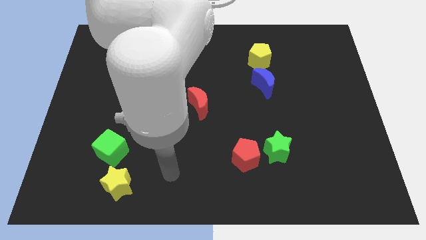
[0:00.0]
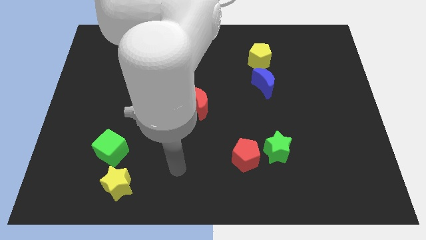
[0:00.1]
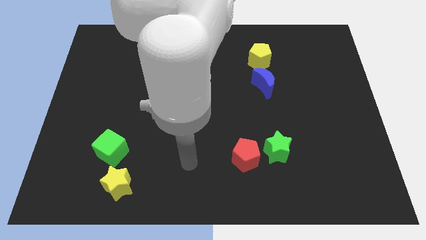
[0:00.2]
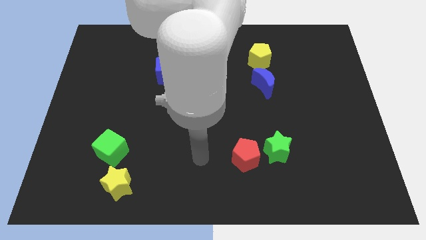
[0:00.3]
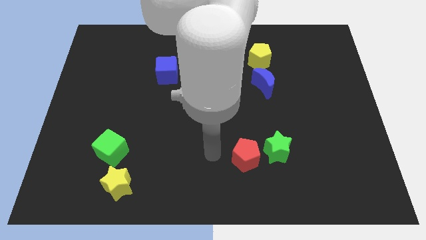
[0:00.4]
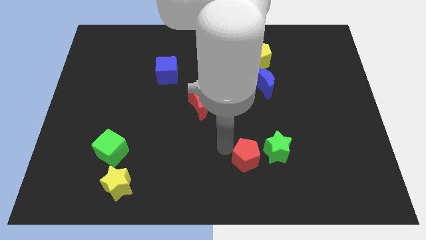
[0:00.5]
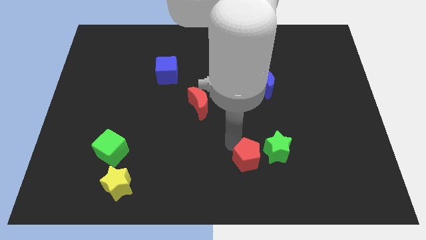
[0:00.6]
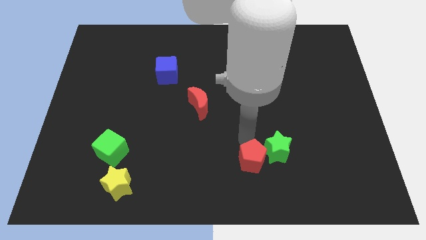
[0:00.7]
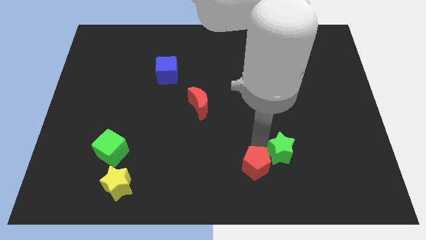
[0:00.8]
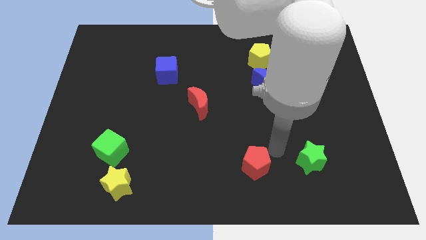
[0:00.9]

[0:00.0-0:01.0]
separate the red pentagon from the green star

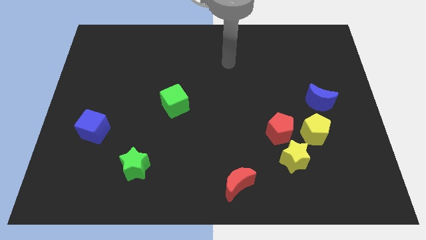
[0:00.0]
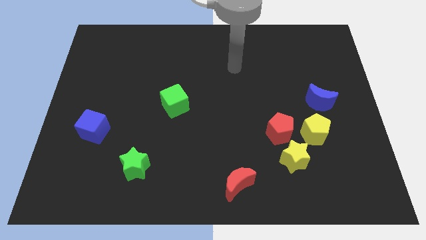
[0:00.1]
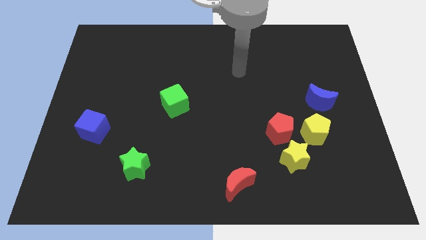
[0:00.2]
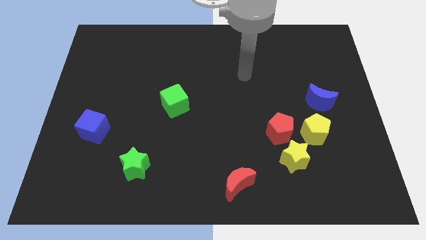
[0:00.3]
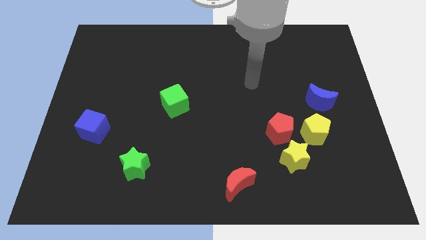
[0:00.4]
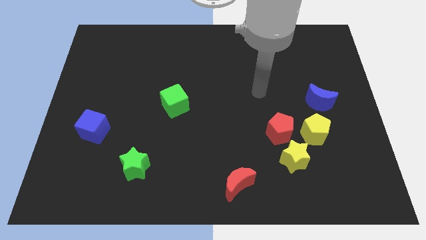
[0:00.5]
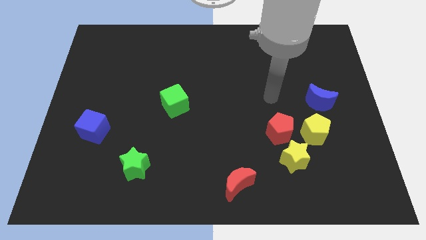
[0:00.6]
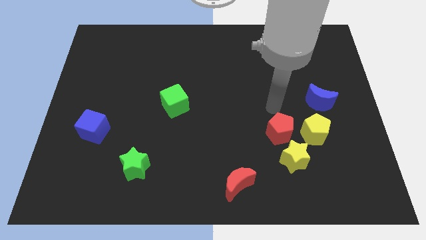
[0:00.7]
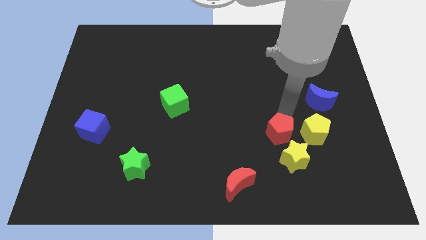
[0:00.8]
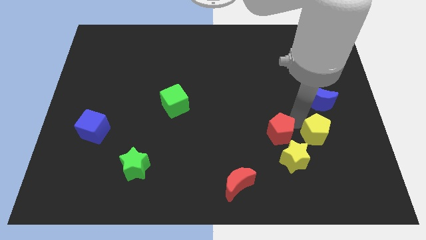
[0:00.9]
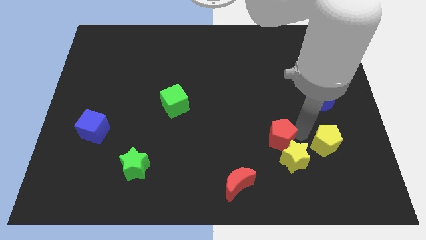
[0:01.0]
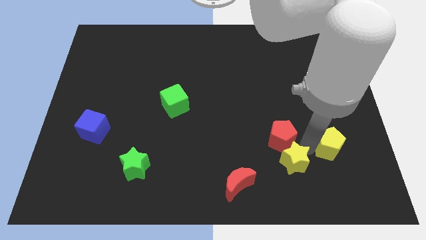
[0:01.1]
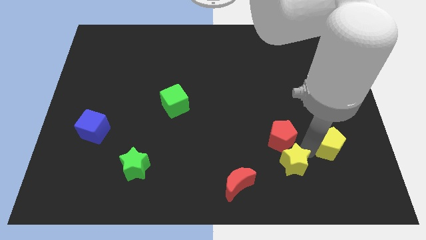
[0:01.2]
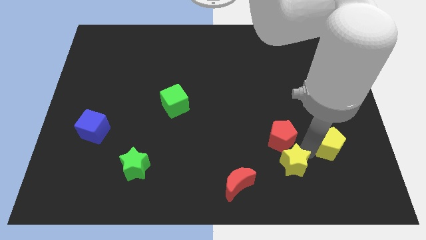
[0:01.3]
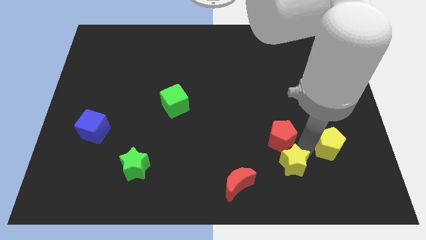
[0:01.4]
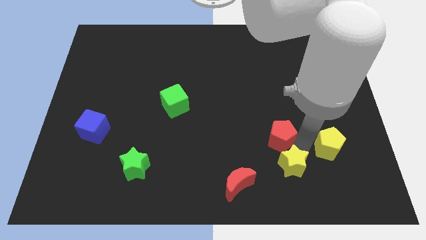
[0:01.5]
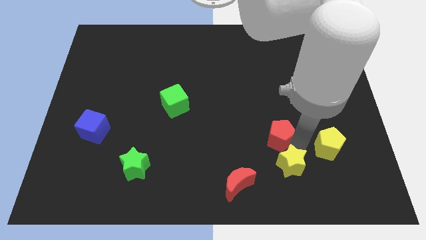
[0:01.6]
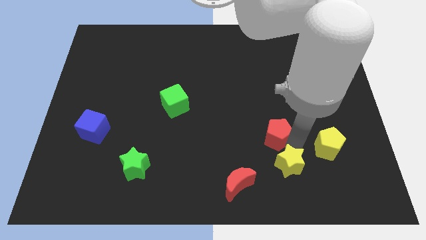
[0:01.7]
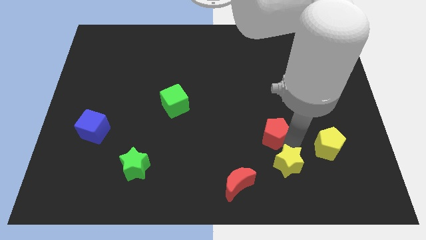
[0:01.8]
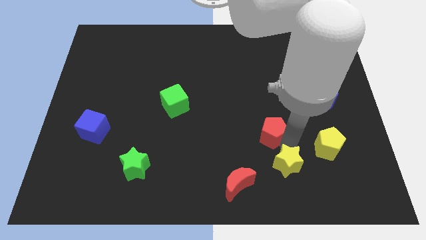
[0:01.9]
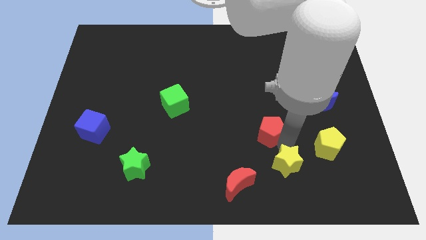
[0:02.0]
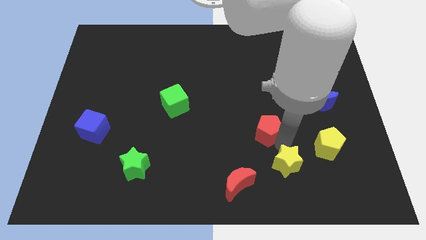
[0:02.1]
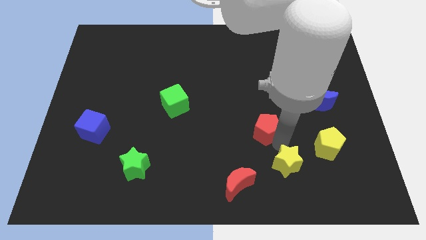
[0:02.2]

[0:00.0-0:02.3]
pull the red pentagon apart from the yellow star and yellow pentagon

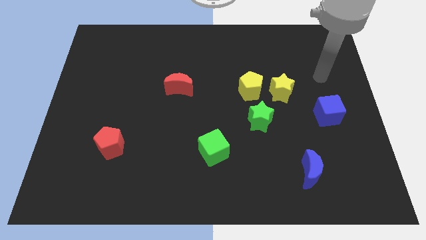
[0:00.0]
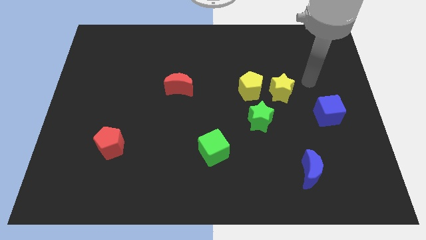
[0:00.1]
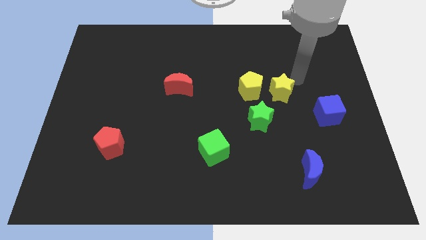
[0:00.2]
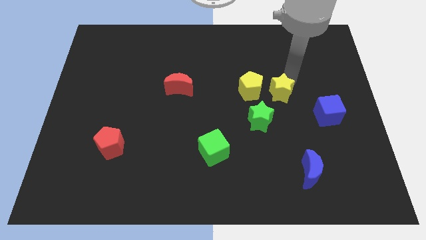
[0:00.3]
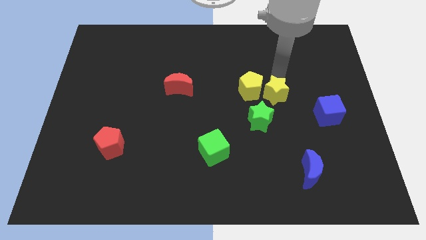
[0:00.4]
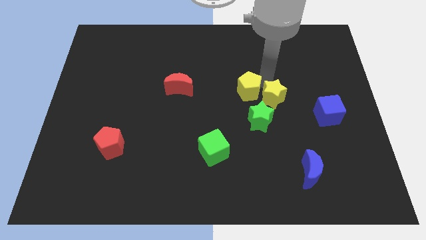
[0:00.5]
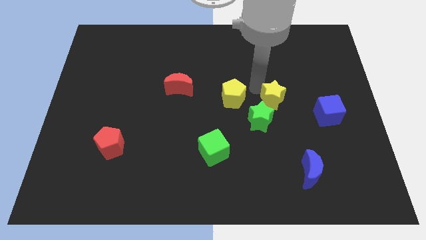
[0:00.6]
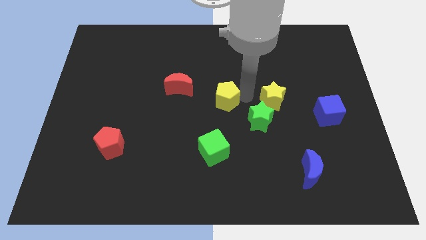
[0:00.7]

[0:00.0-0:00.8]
pull the yellow star apart from the yellow pentagon

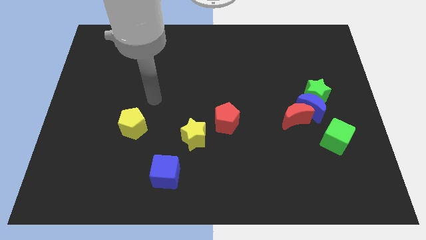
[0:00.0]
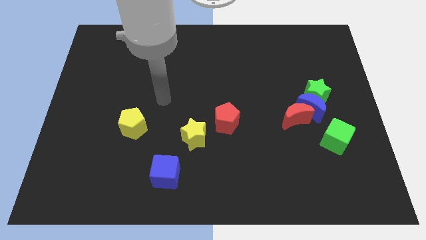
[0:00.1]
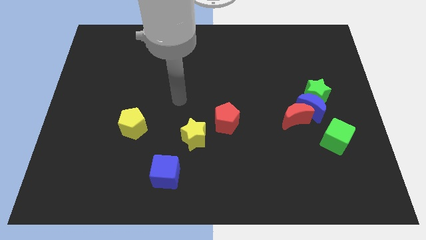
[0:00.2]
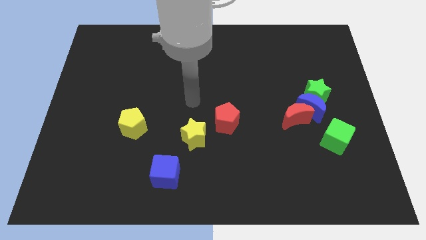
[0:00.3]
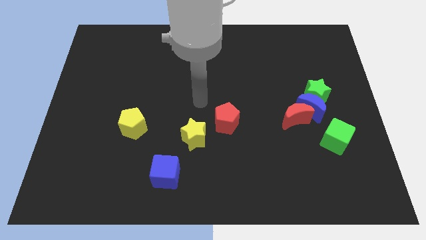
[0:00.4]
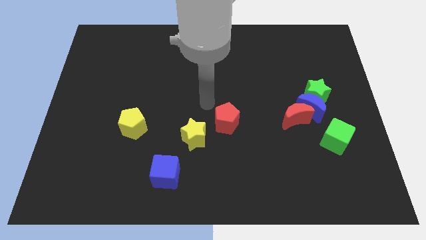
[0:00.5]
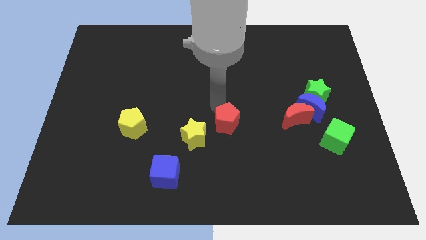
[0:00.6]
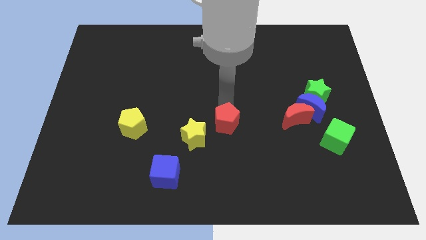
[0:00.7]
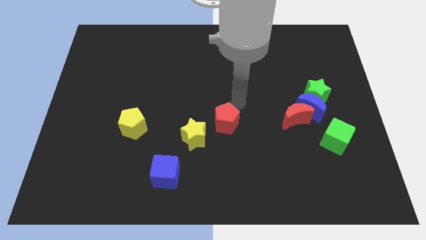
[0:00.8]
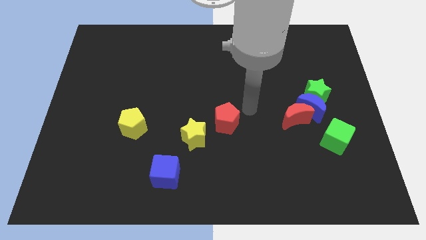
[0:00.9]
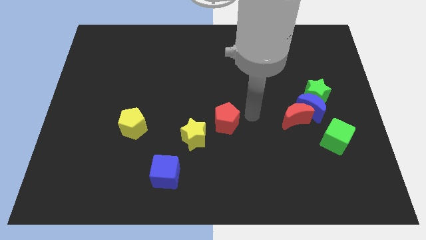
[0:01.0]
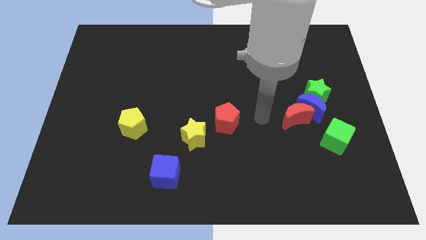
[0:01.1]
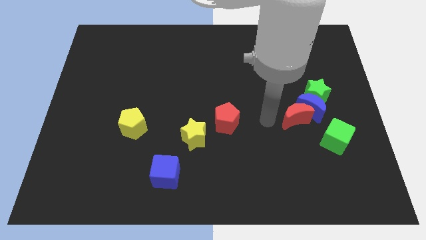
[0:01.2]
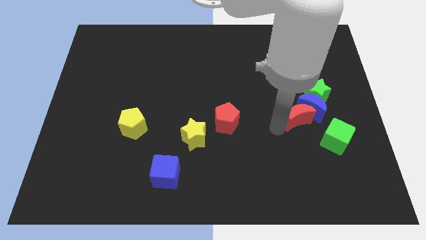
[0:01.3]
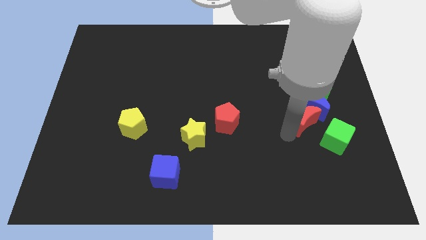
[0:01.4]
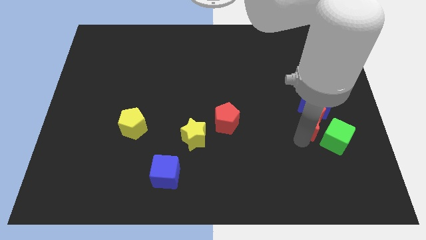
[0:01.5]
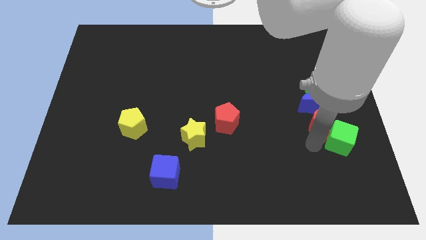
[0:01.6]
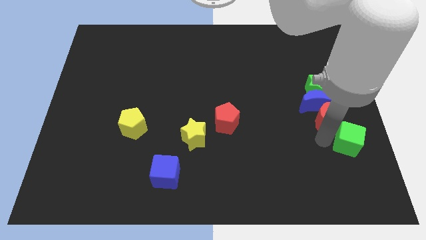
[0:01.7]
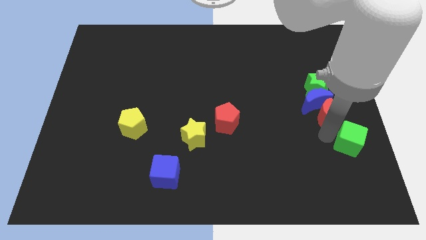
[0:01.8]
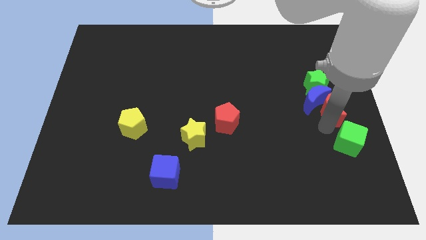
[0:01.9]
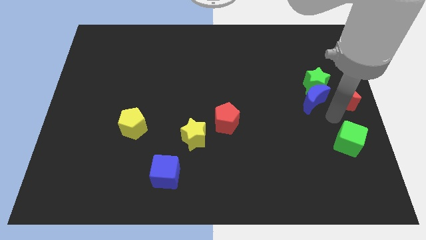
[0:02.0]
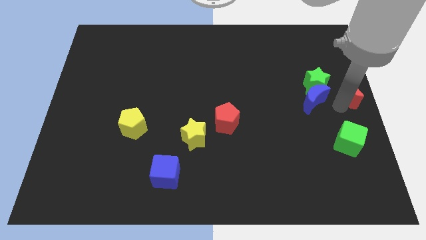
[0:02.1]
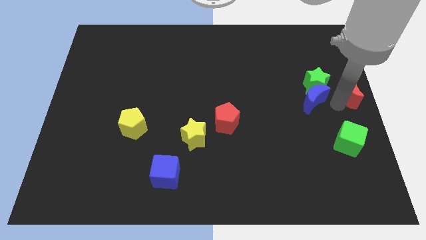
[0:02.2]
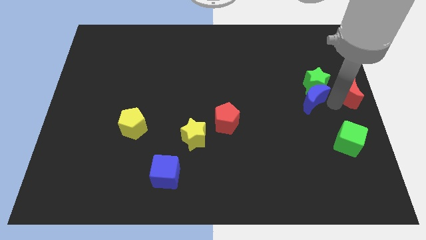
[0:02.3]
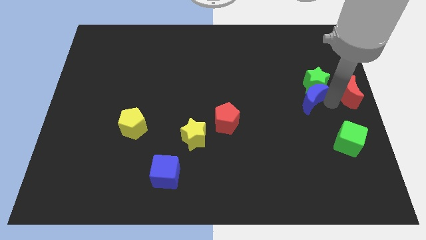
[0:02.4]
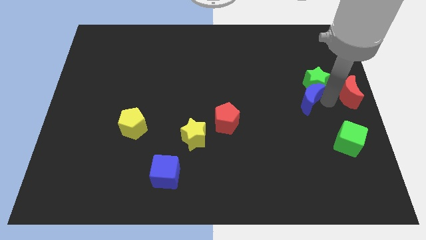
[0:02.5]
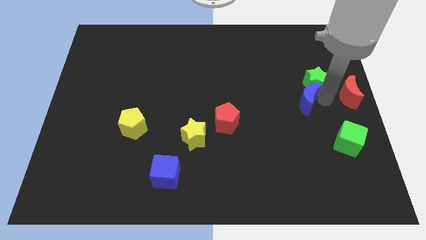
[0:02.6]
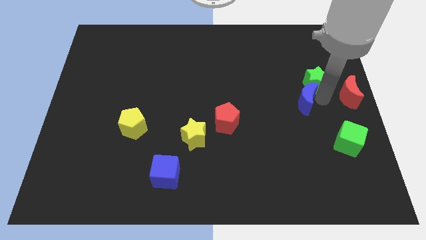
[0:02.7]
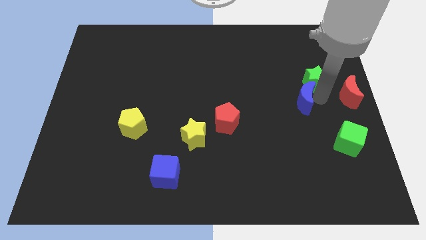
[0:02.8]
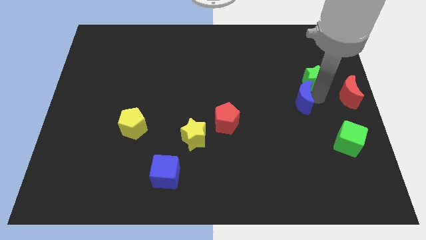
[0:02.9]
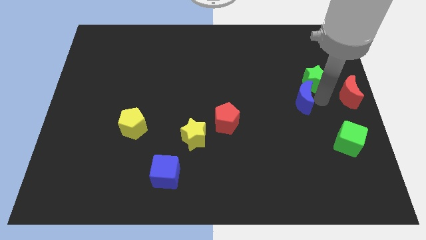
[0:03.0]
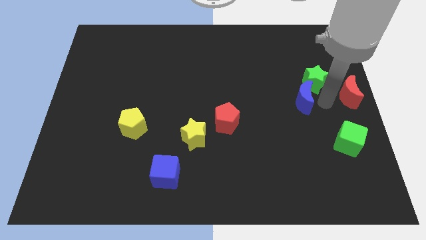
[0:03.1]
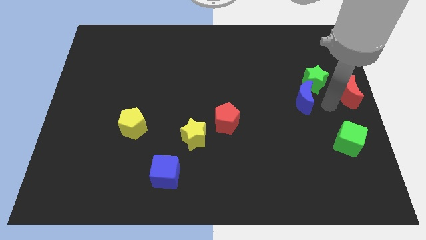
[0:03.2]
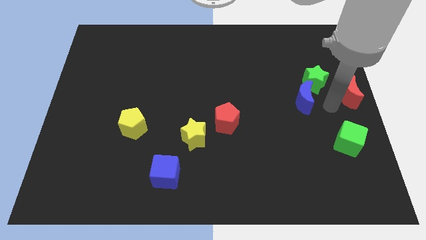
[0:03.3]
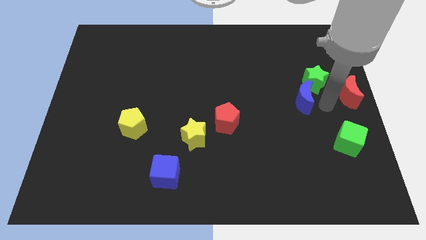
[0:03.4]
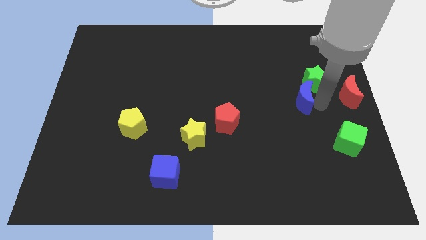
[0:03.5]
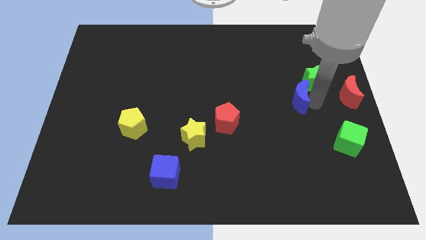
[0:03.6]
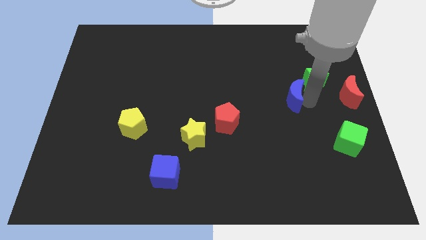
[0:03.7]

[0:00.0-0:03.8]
pull the blue moon apart from the green star, red moon, and green cube

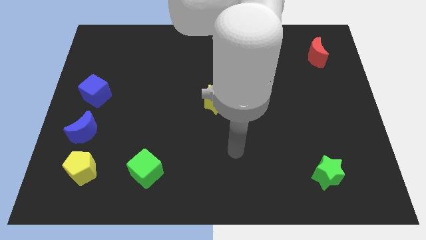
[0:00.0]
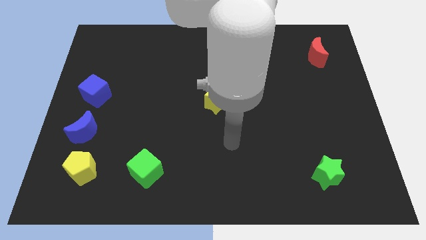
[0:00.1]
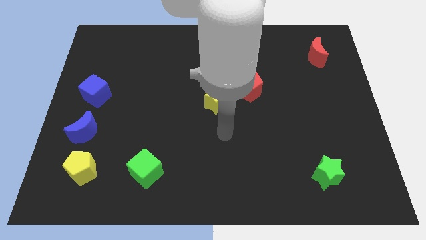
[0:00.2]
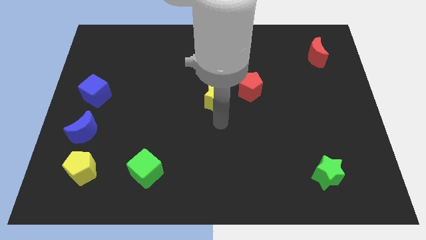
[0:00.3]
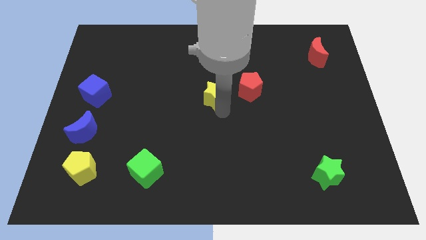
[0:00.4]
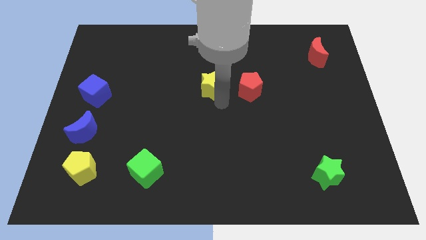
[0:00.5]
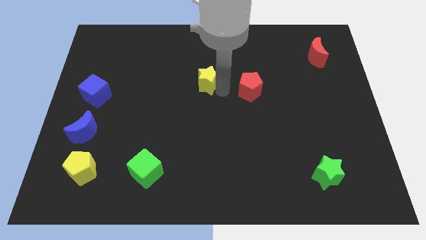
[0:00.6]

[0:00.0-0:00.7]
pull the red pentagon apart from the yellow star

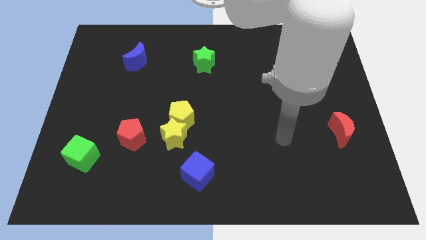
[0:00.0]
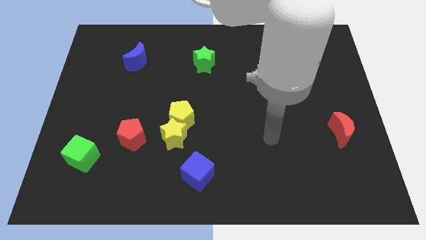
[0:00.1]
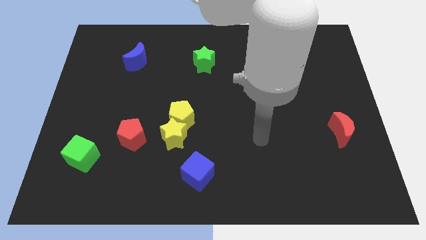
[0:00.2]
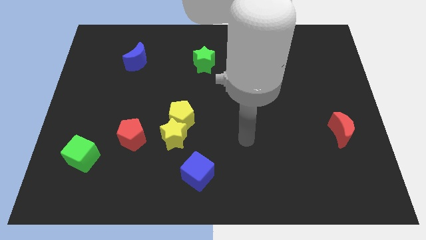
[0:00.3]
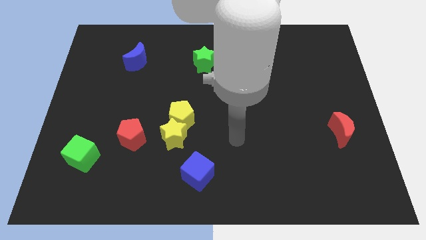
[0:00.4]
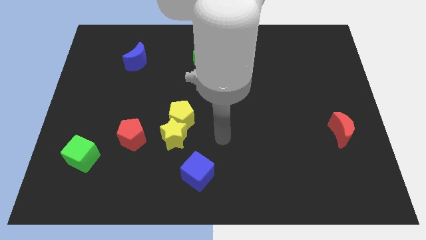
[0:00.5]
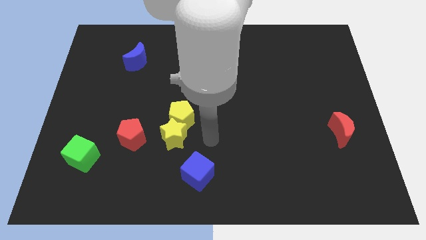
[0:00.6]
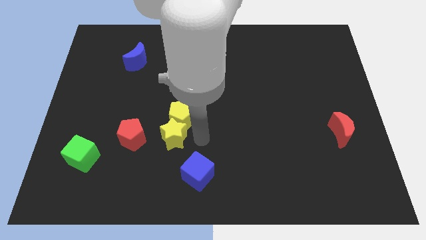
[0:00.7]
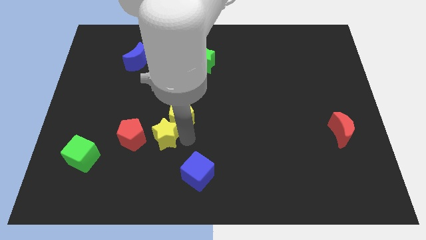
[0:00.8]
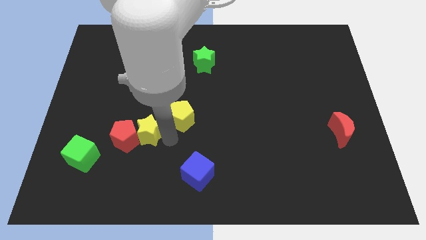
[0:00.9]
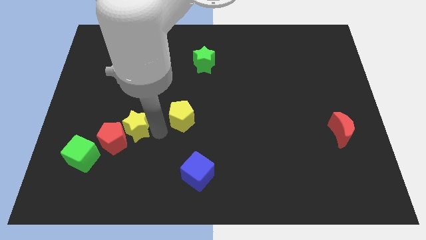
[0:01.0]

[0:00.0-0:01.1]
separate the yellow pentagon from the yellow star
